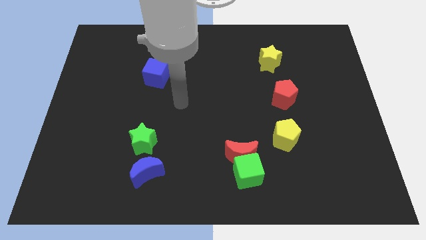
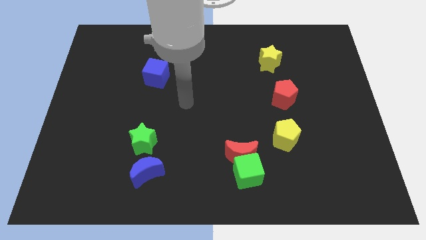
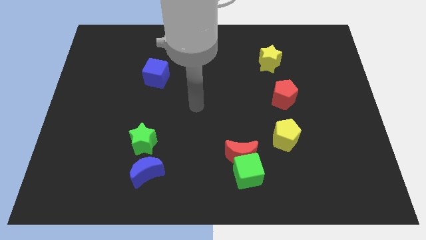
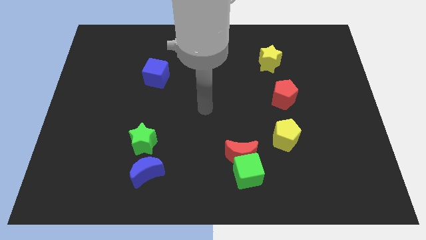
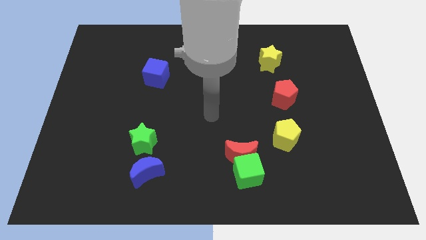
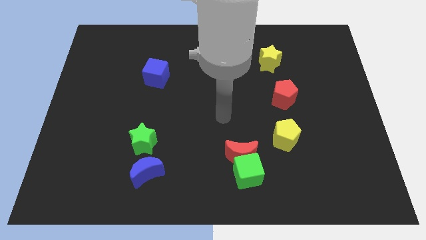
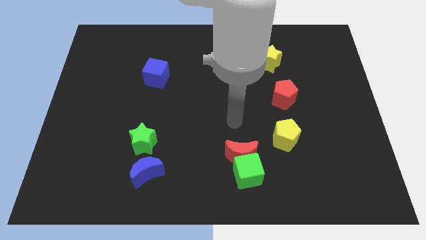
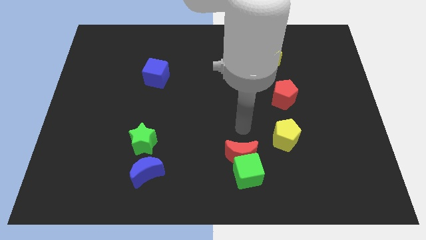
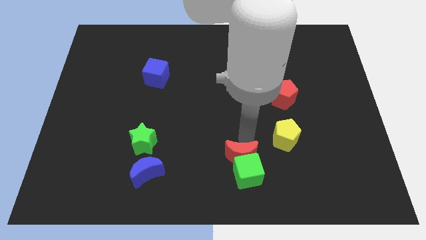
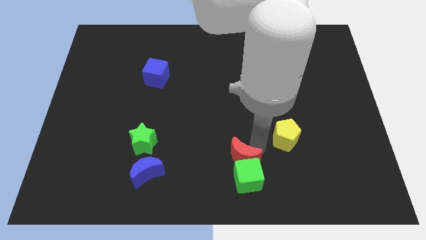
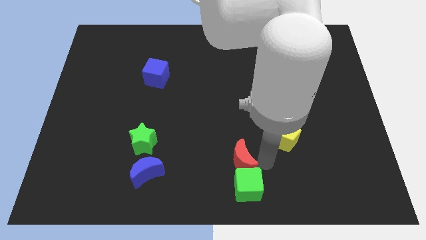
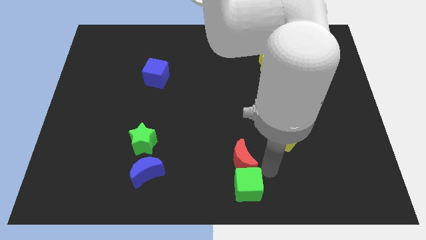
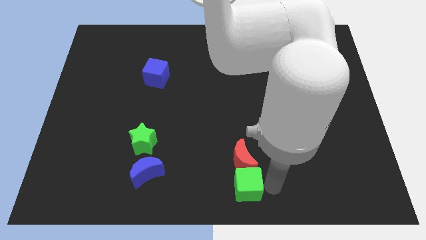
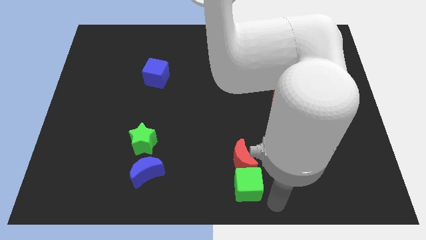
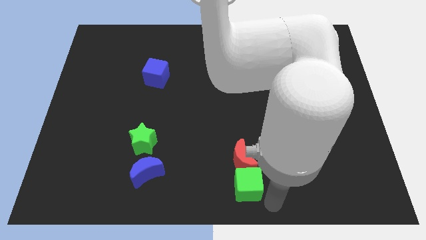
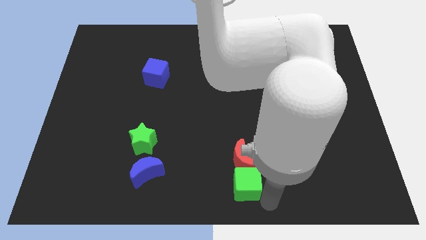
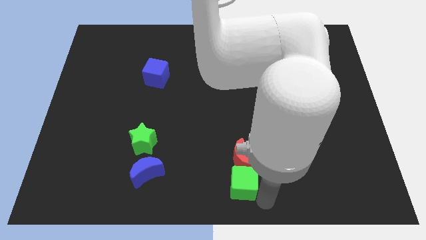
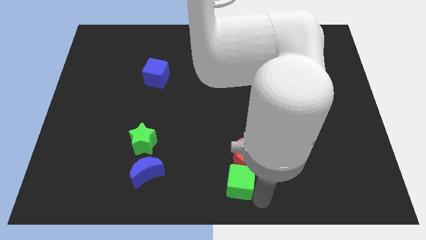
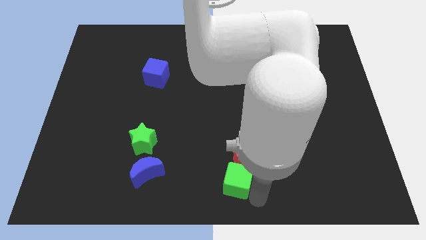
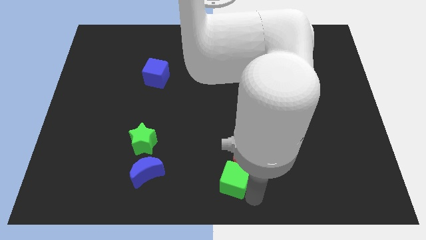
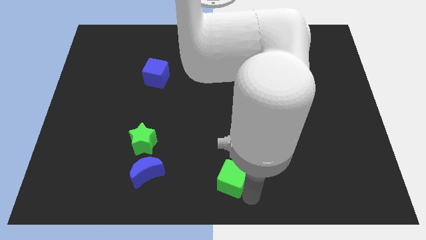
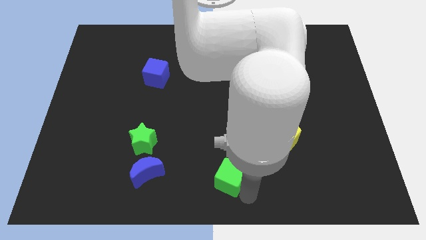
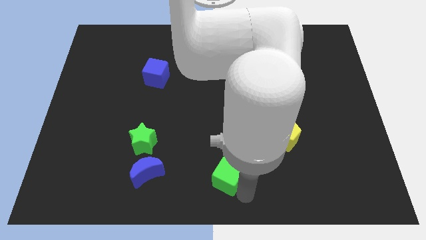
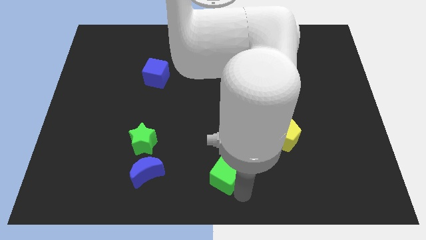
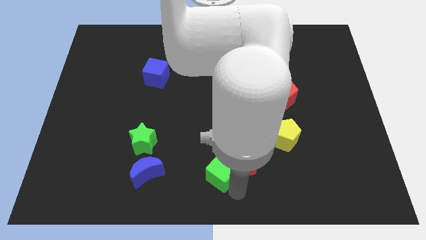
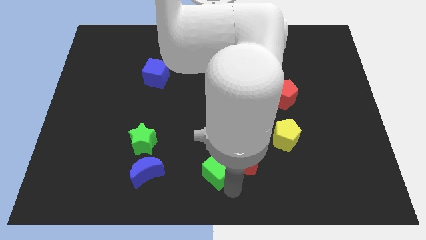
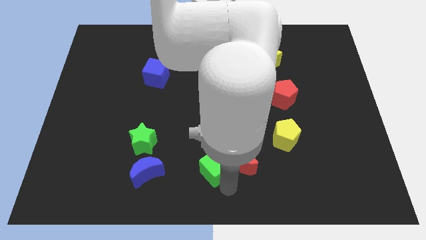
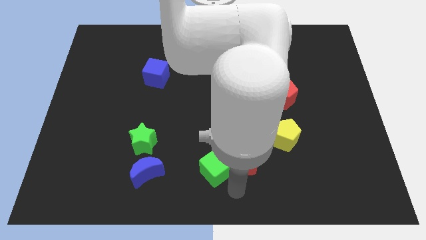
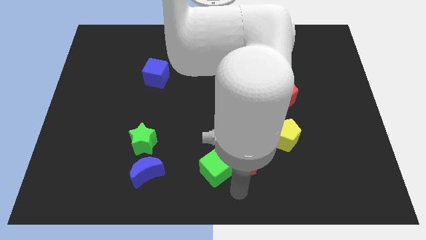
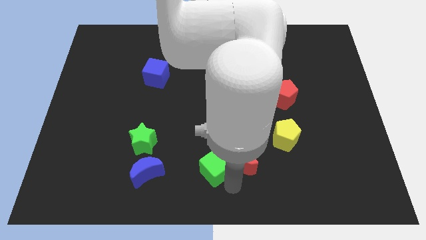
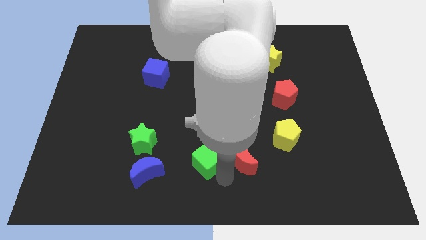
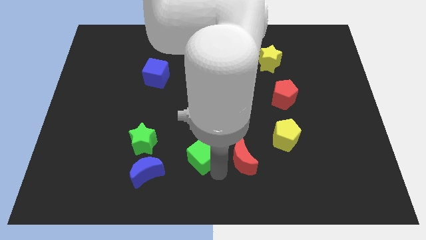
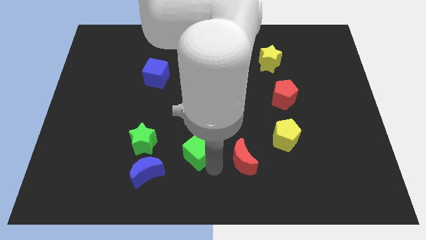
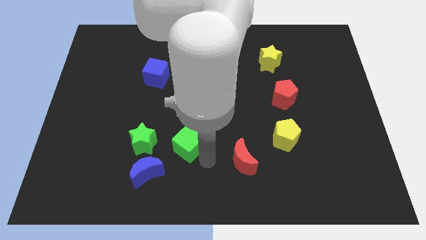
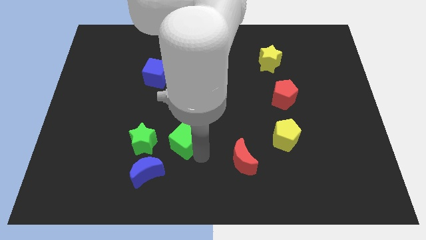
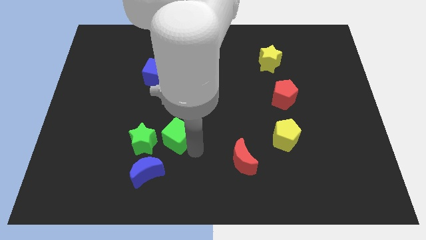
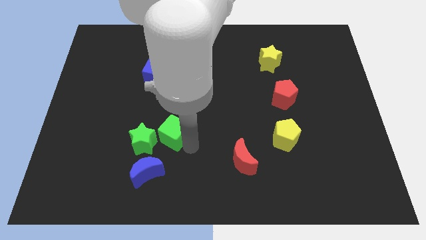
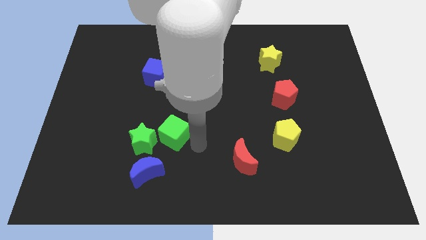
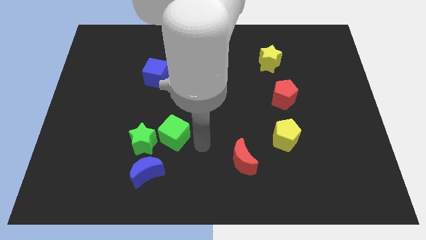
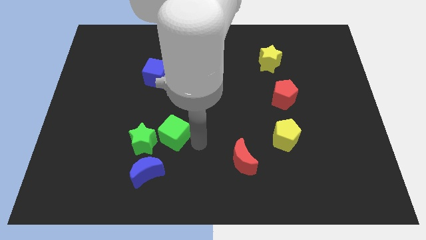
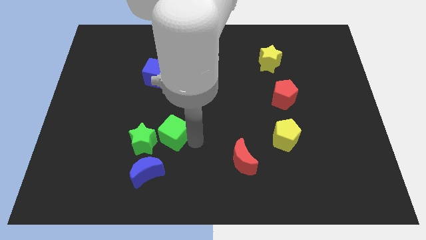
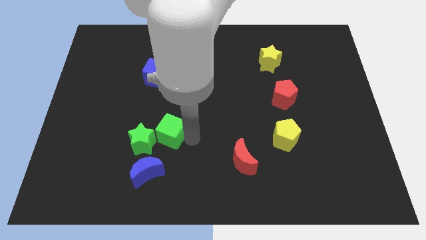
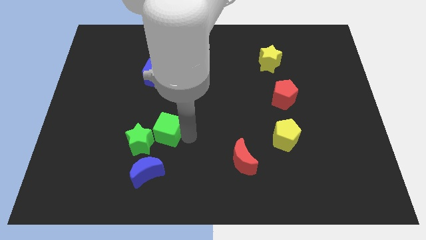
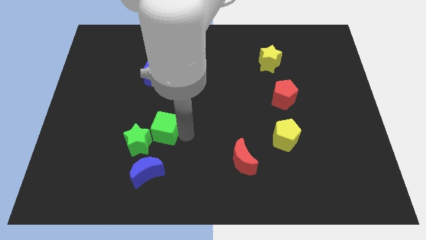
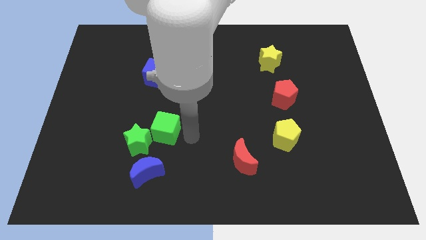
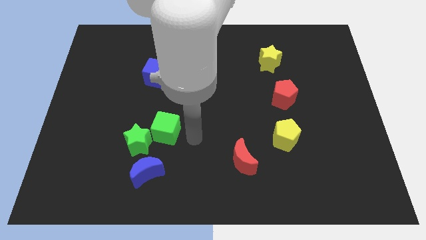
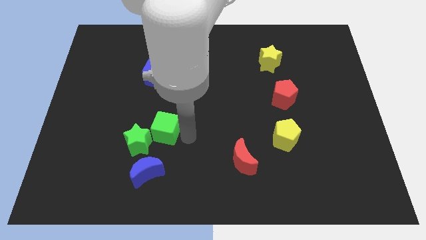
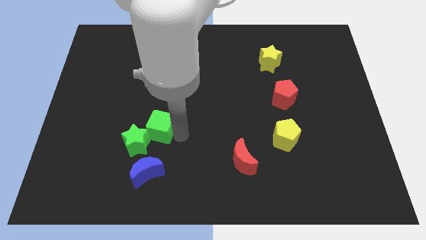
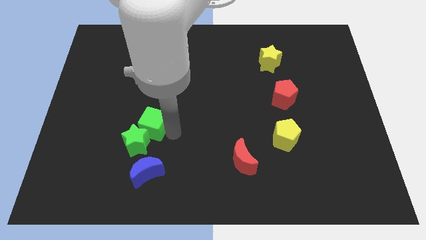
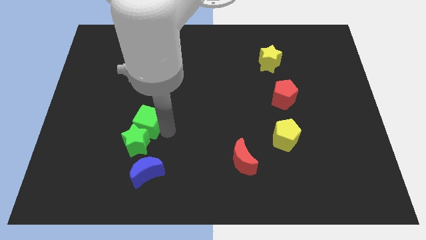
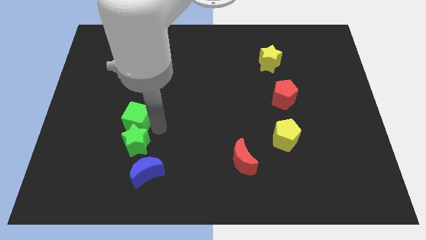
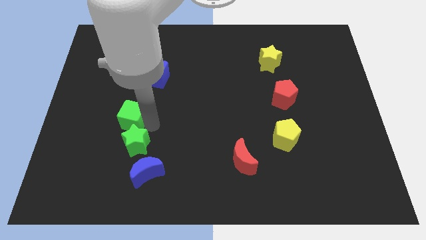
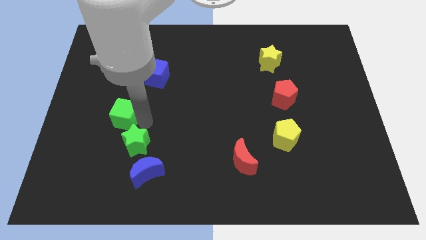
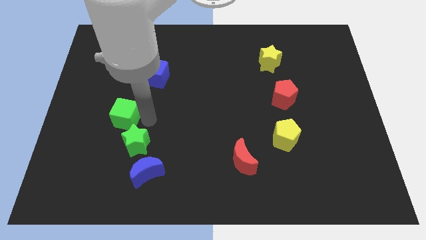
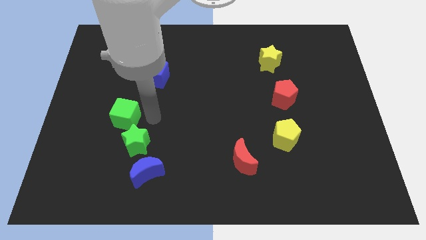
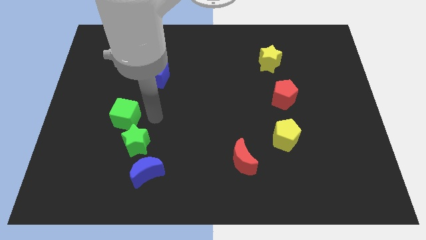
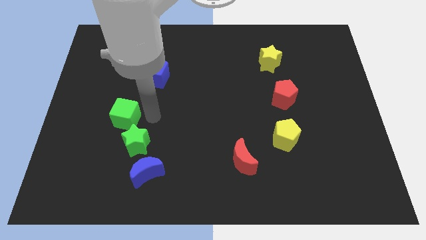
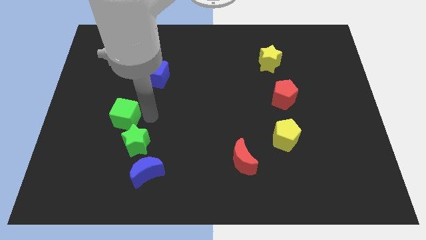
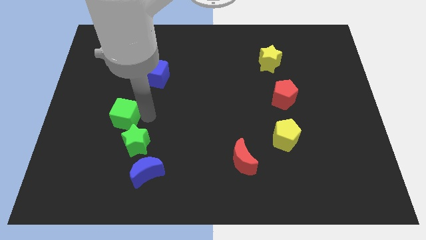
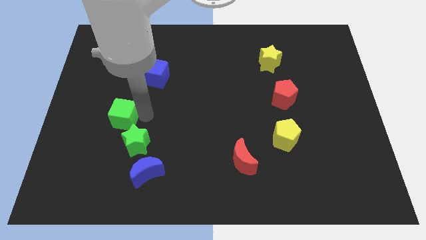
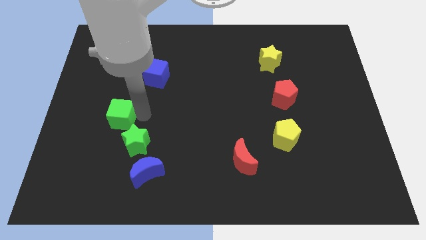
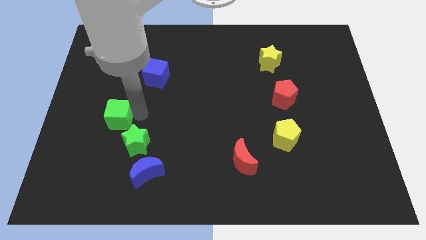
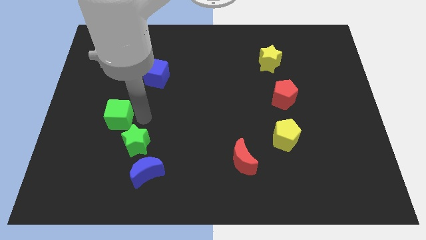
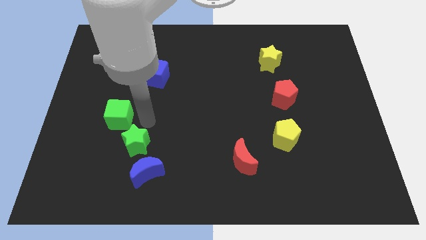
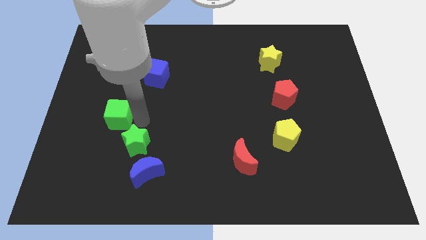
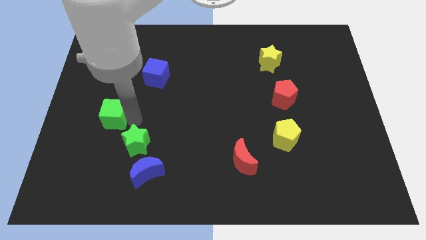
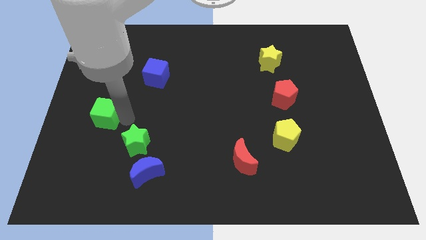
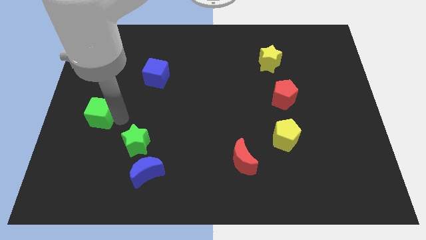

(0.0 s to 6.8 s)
push the green cube to the left side
